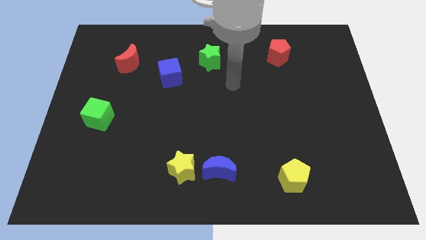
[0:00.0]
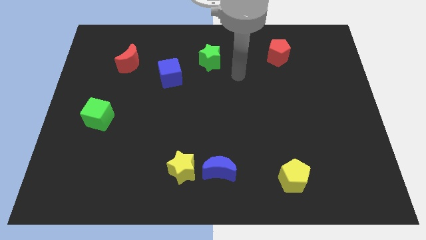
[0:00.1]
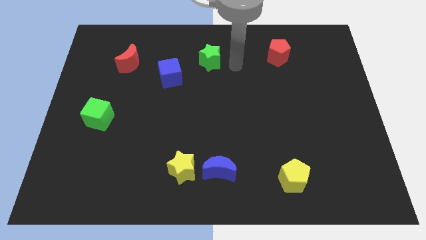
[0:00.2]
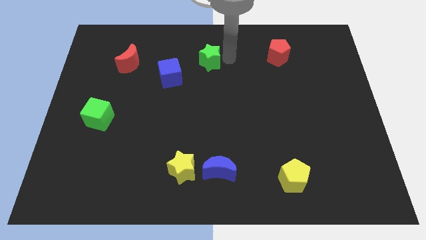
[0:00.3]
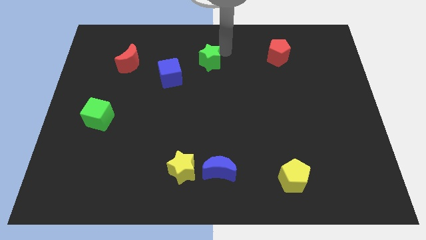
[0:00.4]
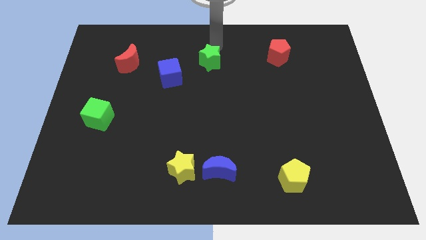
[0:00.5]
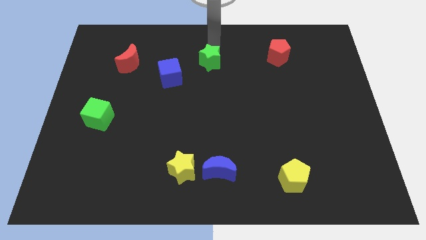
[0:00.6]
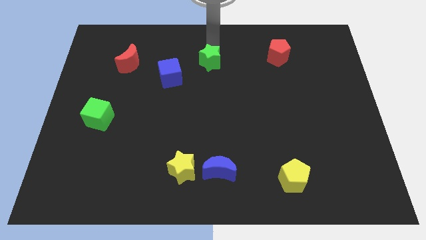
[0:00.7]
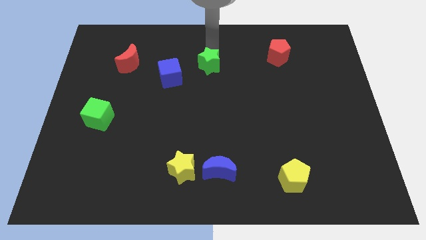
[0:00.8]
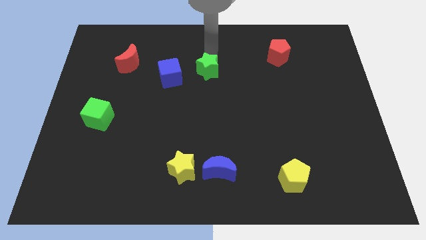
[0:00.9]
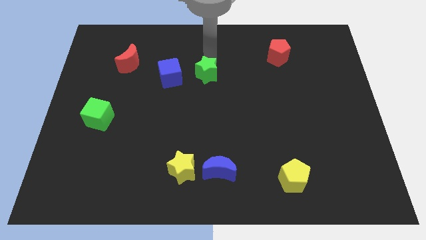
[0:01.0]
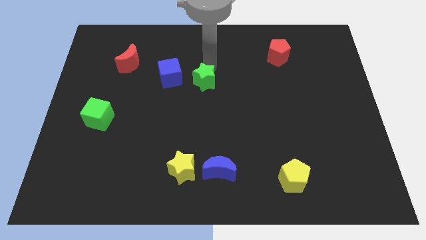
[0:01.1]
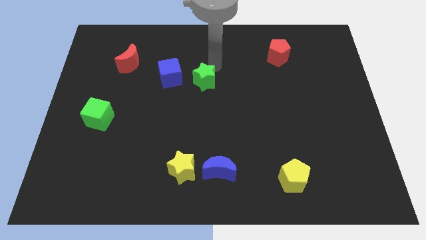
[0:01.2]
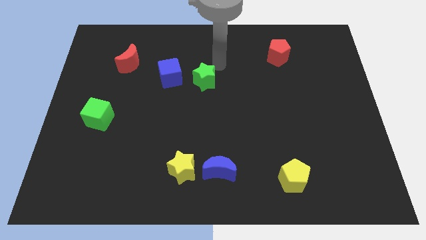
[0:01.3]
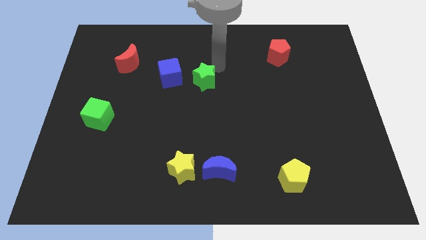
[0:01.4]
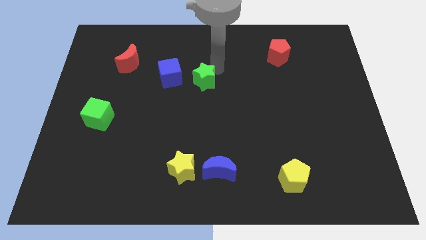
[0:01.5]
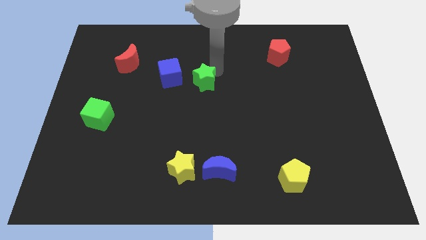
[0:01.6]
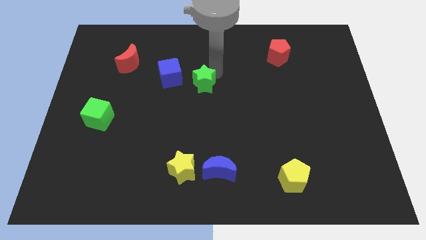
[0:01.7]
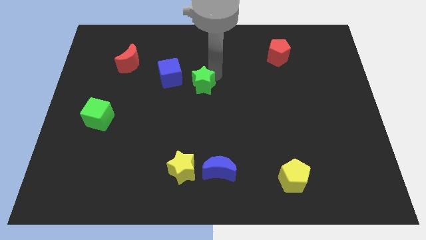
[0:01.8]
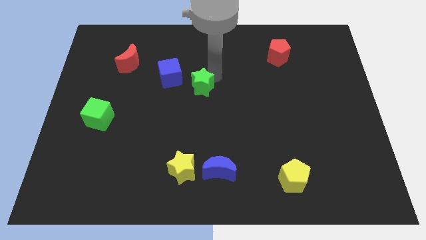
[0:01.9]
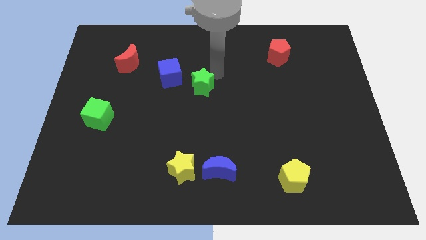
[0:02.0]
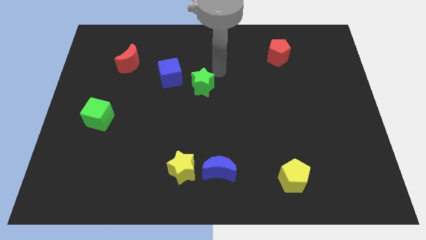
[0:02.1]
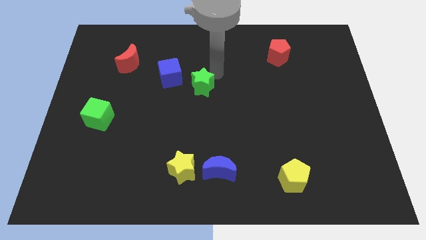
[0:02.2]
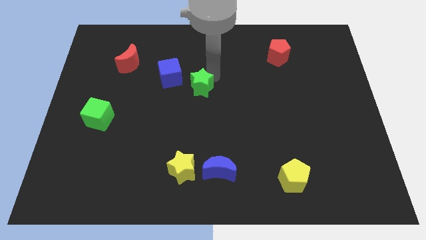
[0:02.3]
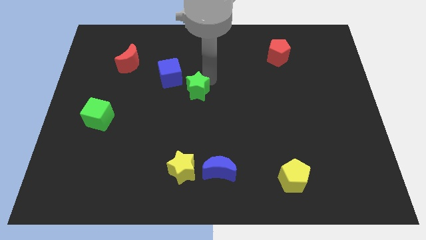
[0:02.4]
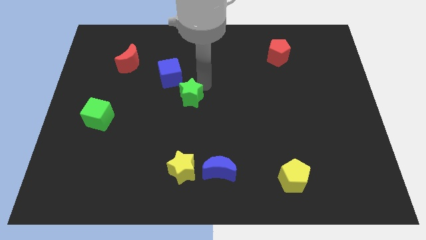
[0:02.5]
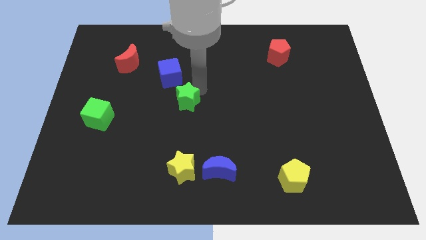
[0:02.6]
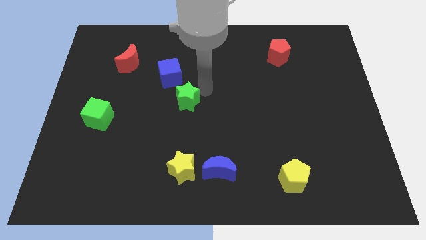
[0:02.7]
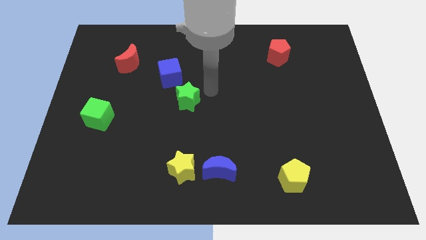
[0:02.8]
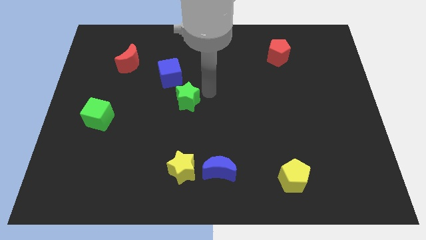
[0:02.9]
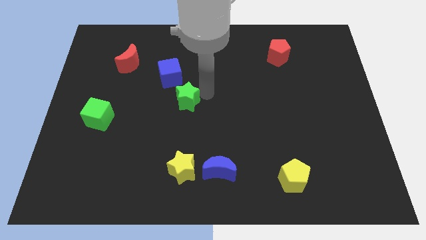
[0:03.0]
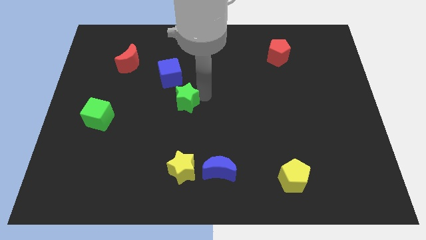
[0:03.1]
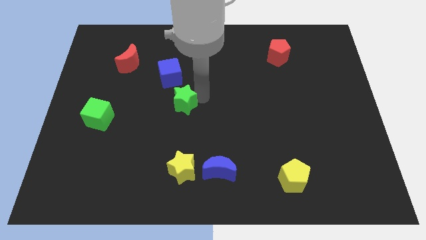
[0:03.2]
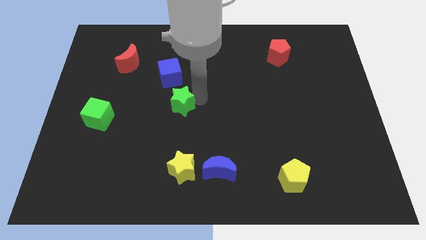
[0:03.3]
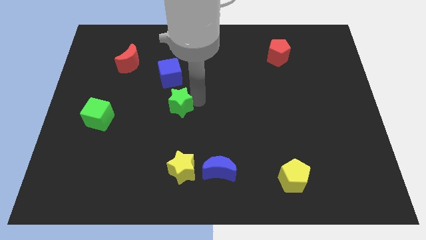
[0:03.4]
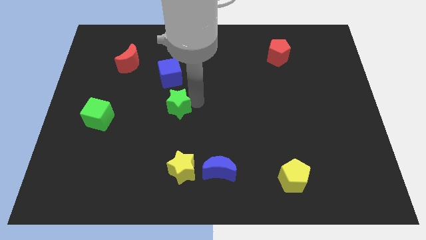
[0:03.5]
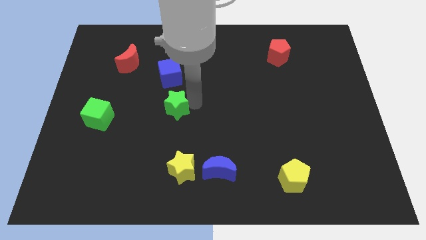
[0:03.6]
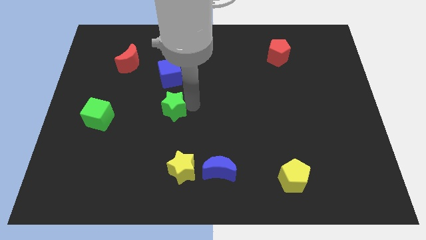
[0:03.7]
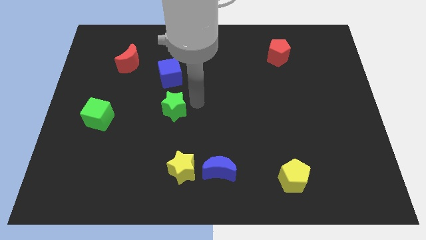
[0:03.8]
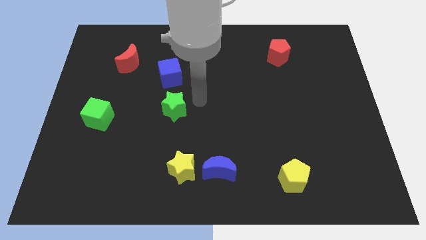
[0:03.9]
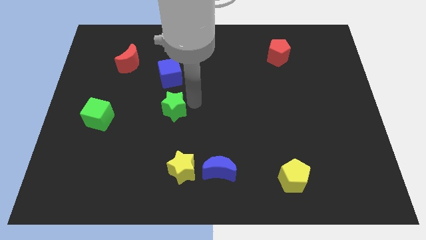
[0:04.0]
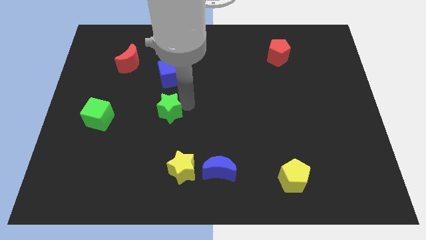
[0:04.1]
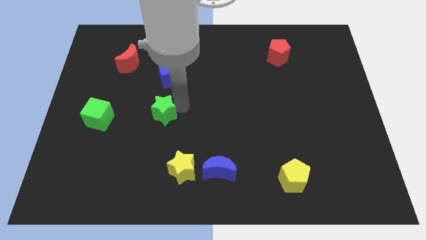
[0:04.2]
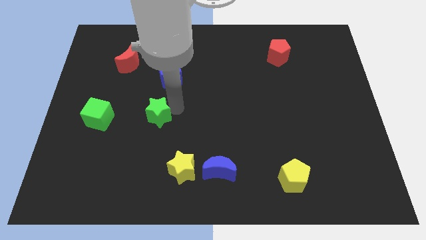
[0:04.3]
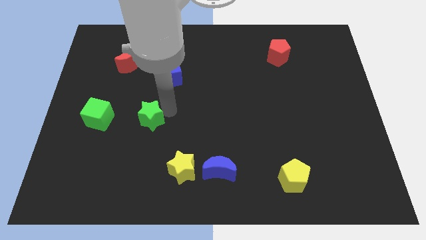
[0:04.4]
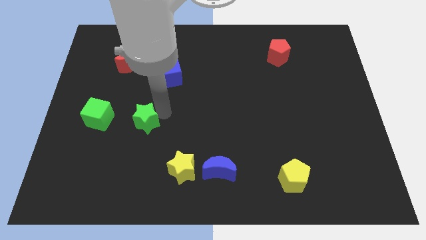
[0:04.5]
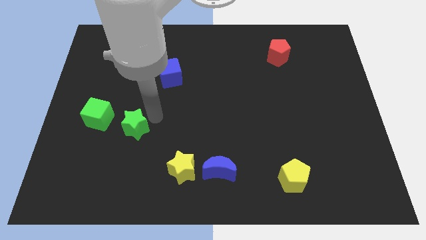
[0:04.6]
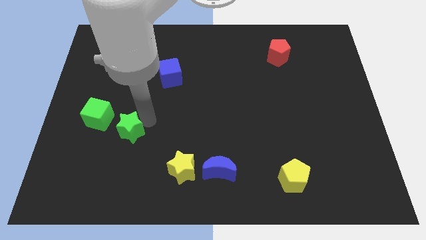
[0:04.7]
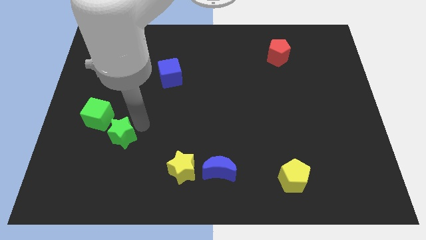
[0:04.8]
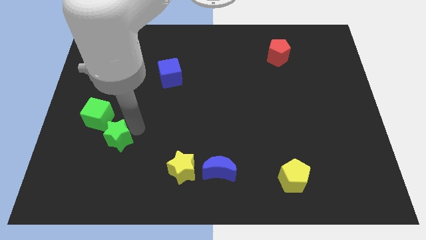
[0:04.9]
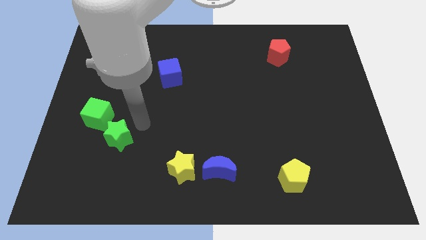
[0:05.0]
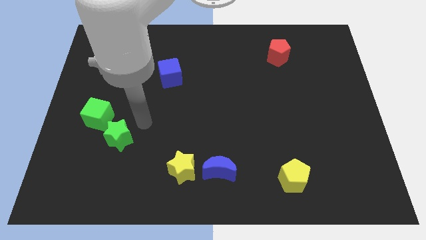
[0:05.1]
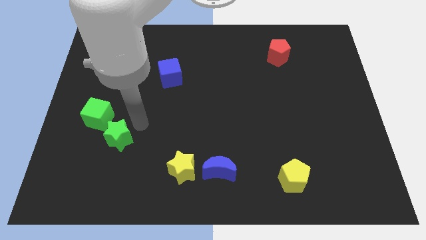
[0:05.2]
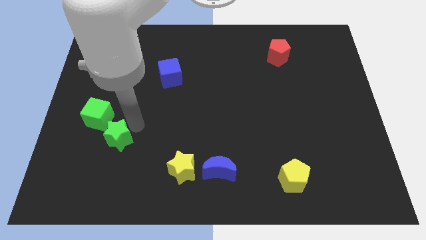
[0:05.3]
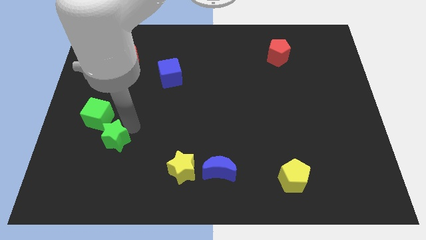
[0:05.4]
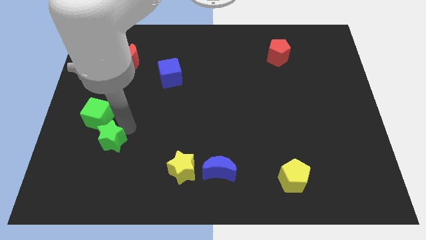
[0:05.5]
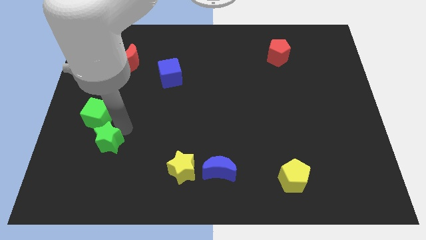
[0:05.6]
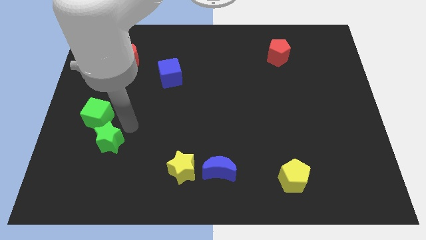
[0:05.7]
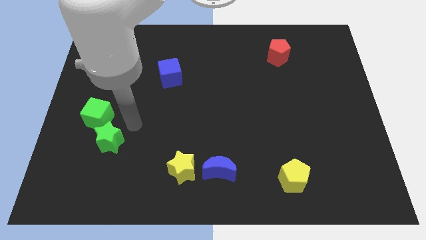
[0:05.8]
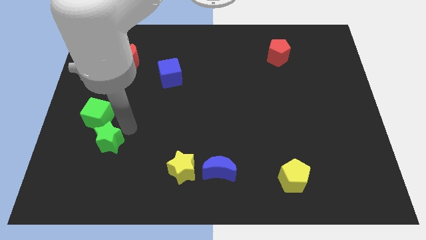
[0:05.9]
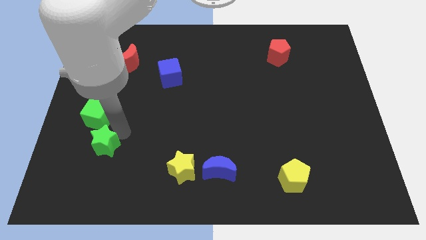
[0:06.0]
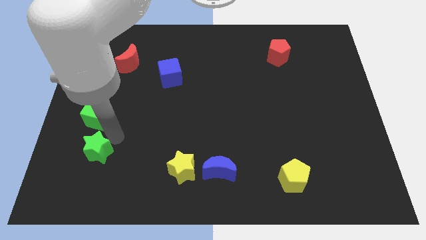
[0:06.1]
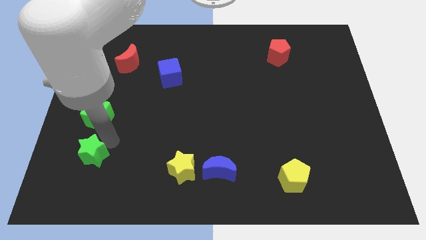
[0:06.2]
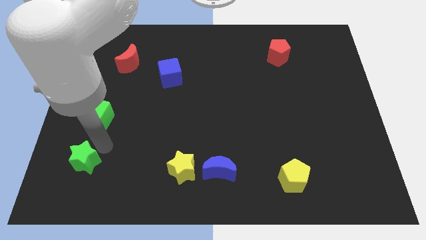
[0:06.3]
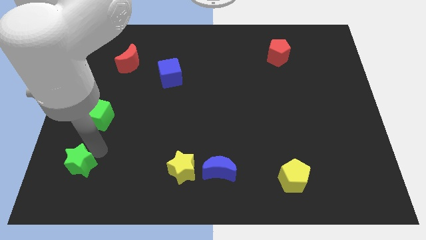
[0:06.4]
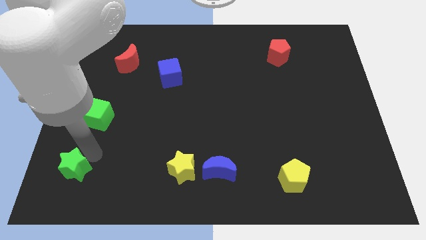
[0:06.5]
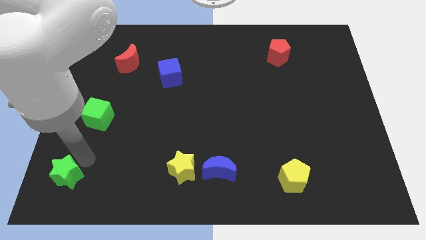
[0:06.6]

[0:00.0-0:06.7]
move the green star to the lower left corner
